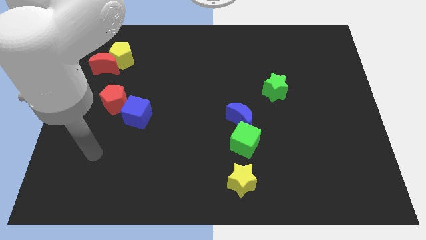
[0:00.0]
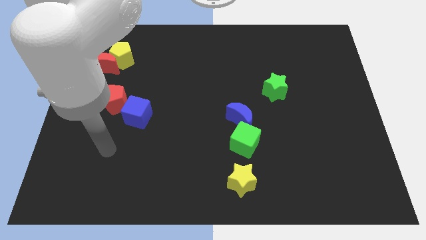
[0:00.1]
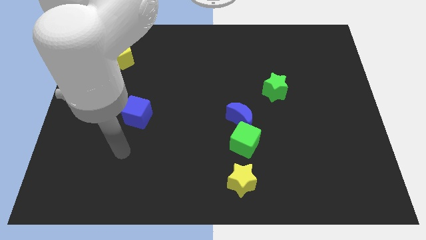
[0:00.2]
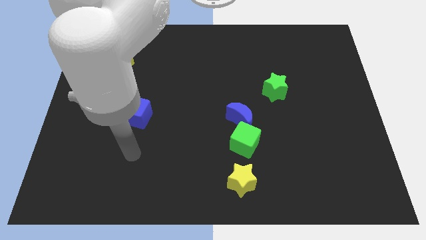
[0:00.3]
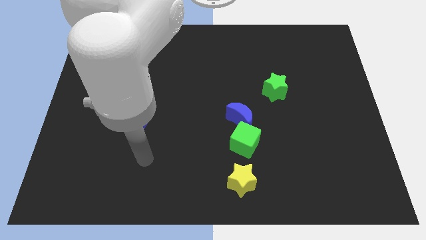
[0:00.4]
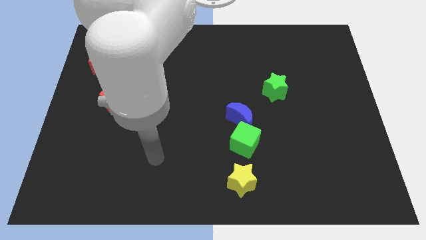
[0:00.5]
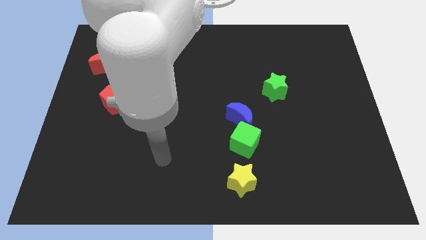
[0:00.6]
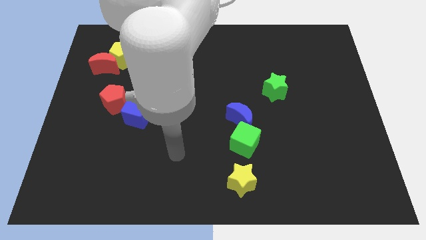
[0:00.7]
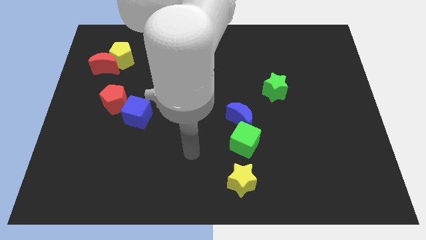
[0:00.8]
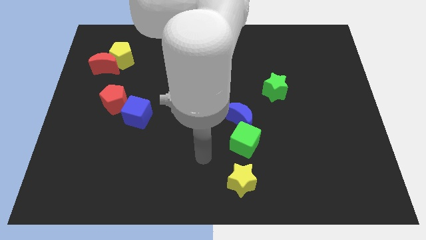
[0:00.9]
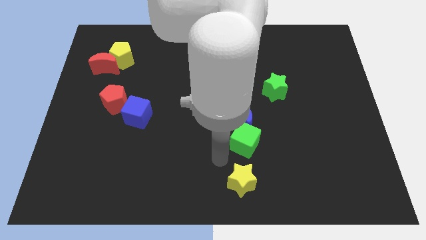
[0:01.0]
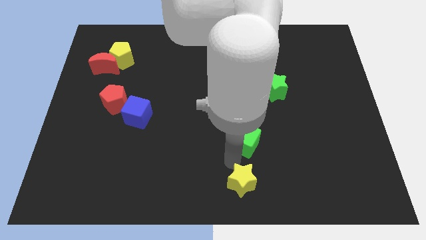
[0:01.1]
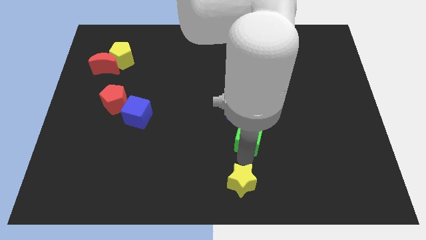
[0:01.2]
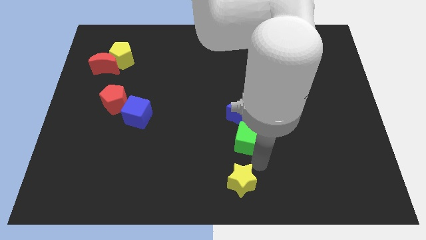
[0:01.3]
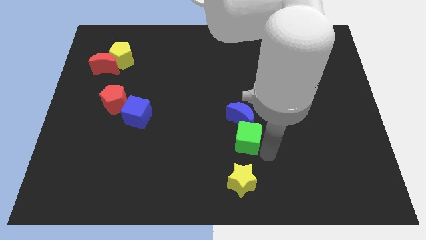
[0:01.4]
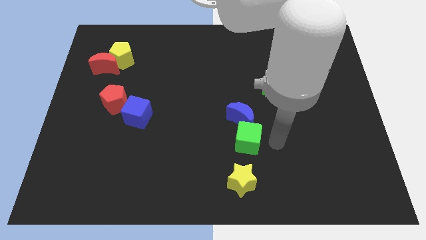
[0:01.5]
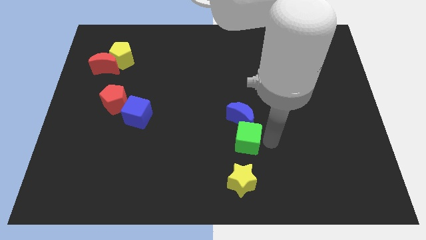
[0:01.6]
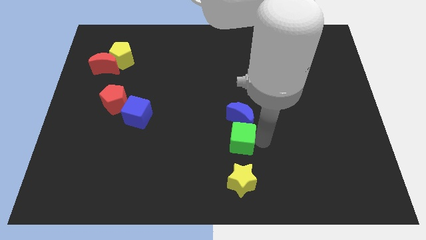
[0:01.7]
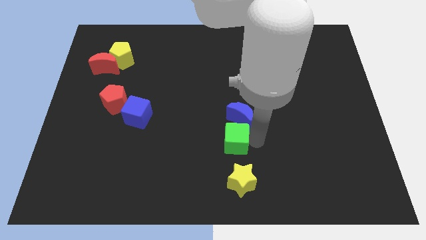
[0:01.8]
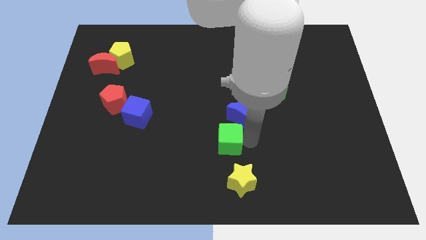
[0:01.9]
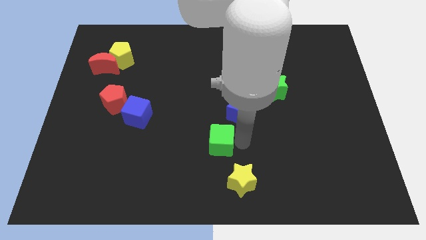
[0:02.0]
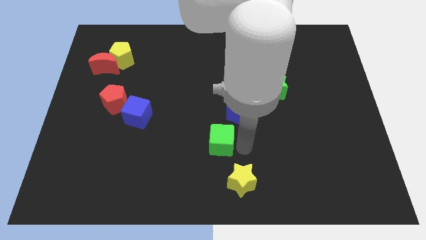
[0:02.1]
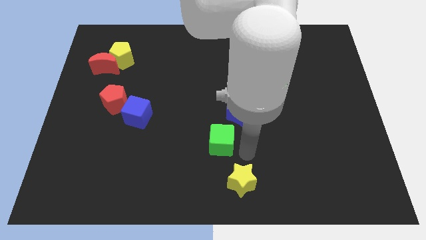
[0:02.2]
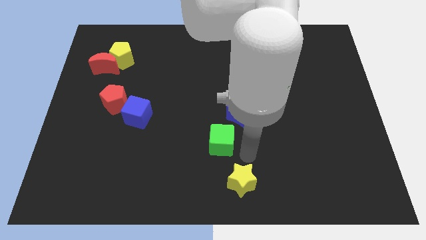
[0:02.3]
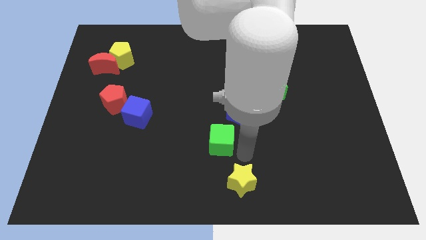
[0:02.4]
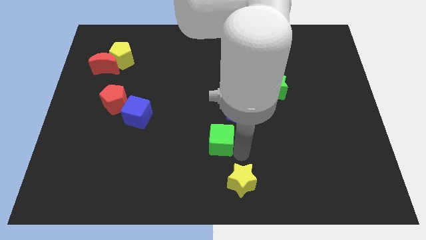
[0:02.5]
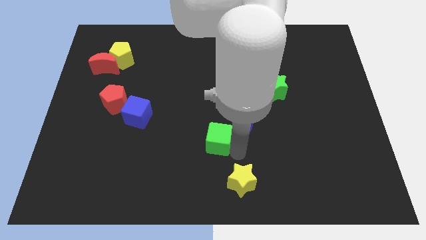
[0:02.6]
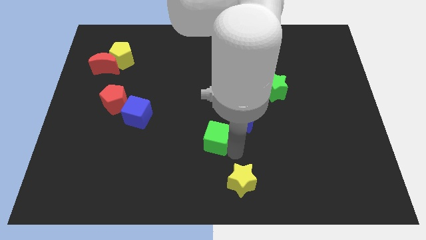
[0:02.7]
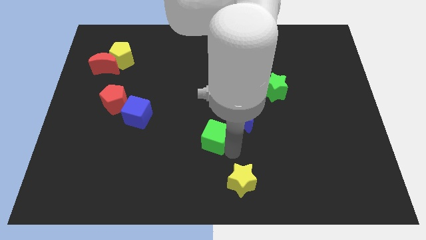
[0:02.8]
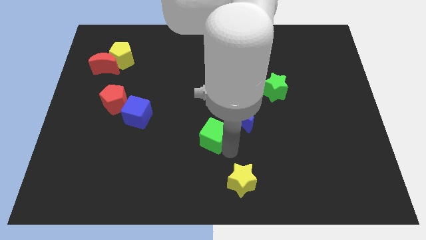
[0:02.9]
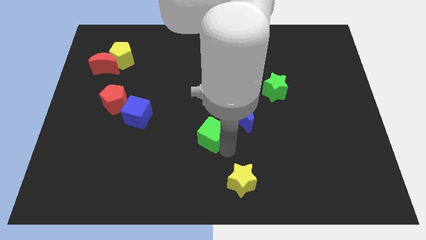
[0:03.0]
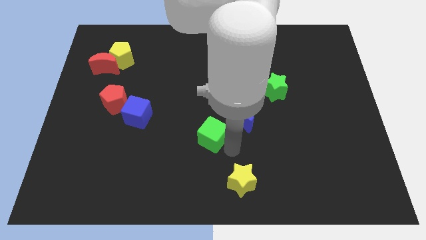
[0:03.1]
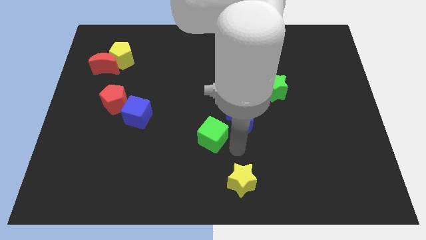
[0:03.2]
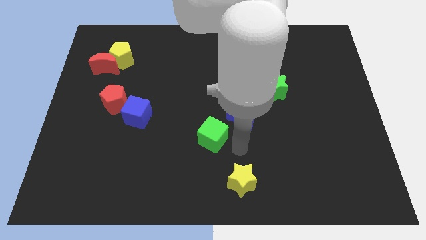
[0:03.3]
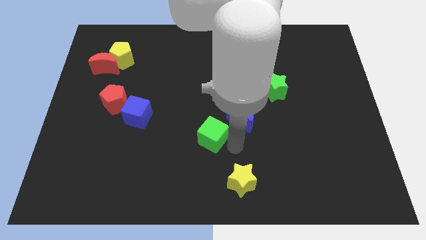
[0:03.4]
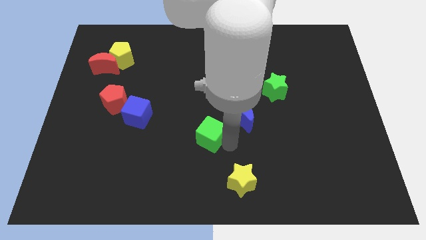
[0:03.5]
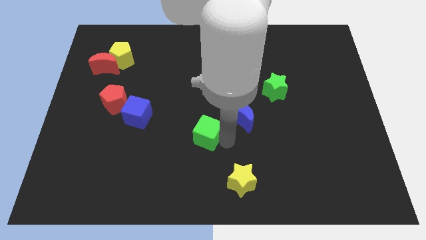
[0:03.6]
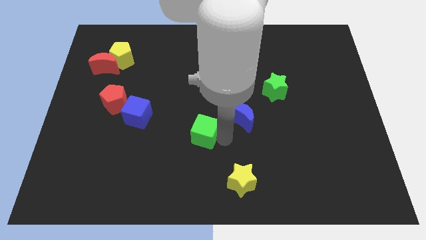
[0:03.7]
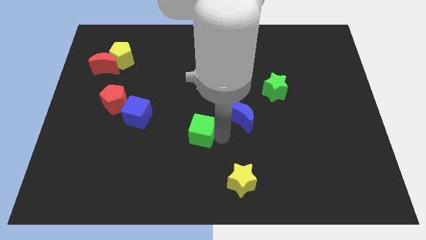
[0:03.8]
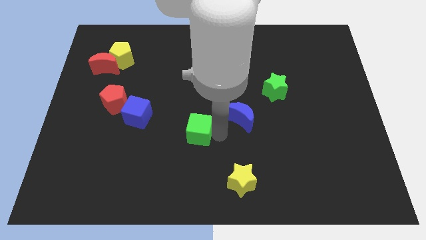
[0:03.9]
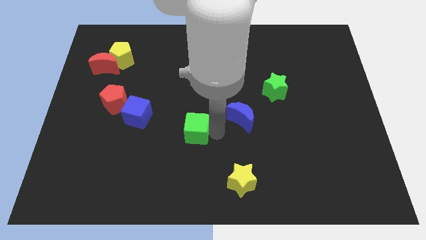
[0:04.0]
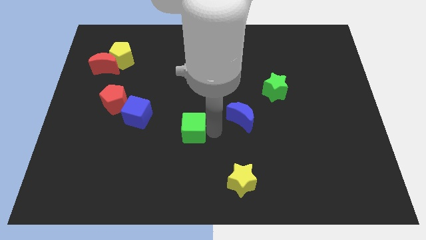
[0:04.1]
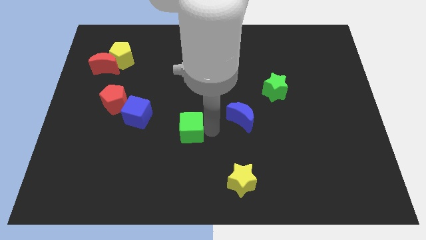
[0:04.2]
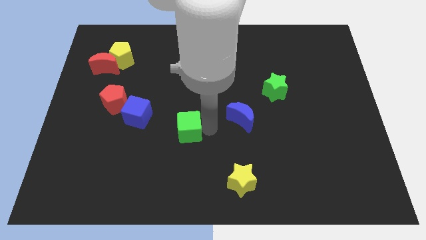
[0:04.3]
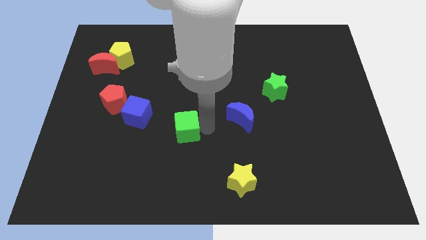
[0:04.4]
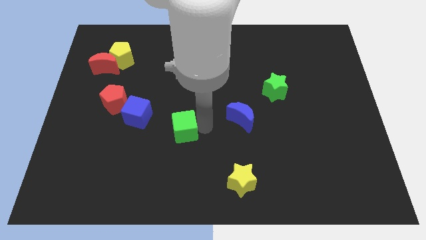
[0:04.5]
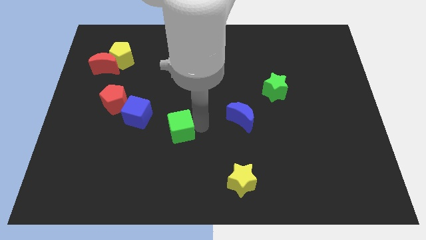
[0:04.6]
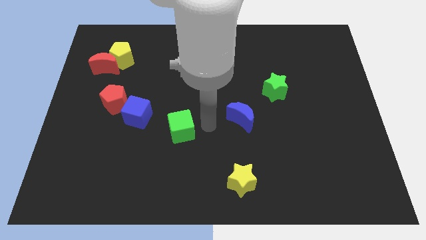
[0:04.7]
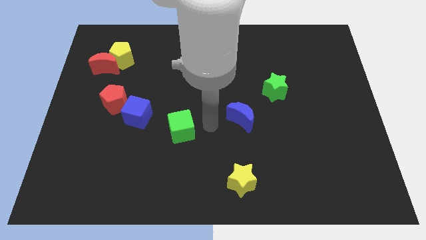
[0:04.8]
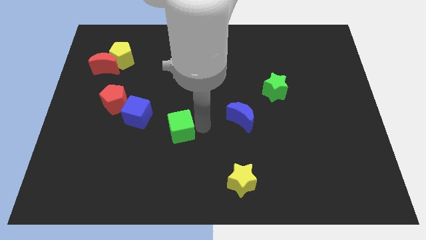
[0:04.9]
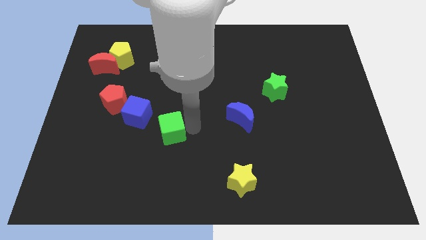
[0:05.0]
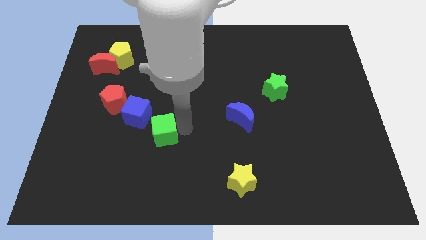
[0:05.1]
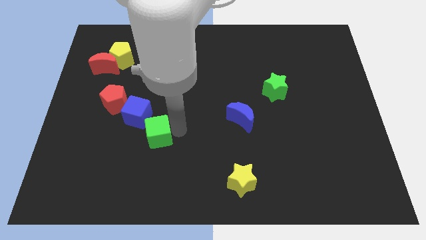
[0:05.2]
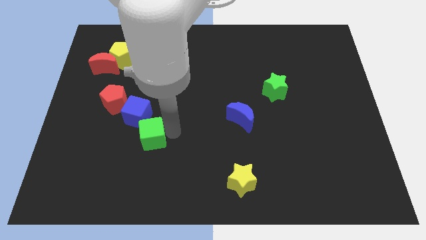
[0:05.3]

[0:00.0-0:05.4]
push the green cube left

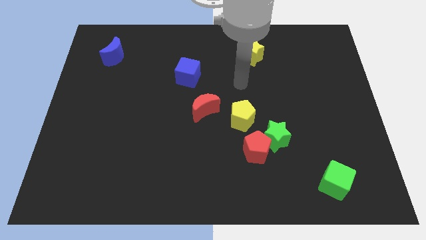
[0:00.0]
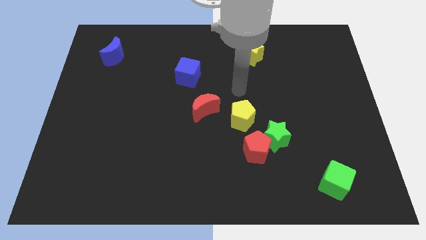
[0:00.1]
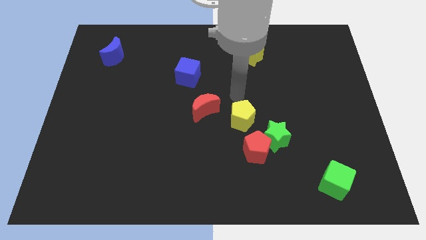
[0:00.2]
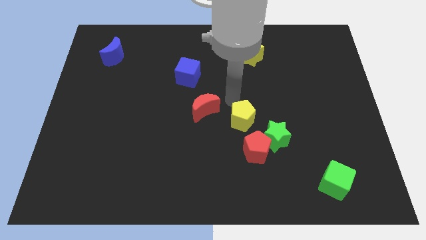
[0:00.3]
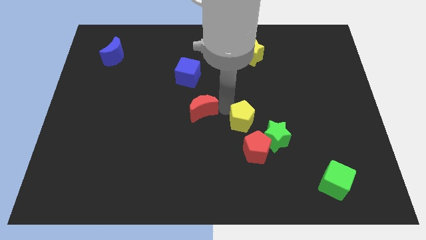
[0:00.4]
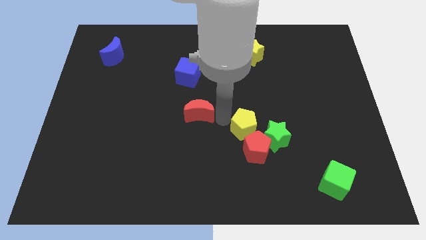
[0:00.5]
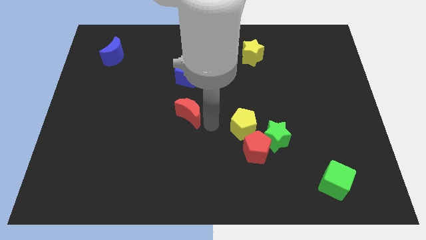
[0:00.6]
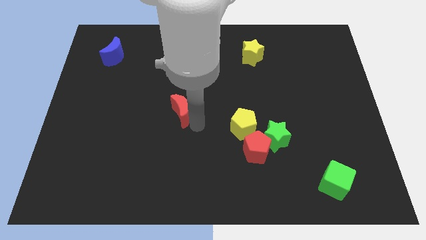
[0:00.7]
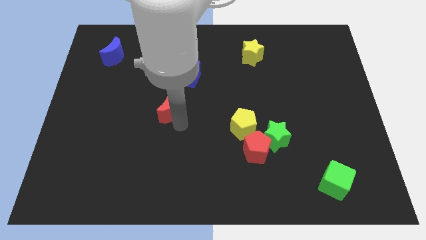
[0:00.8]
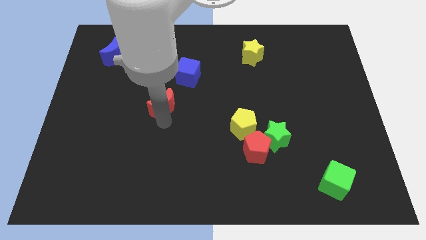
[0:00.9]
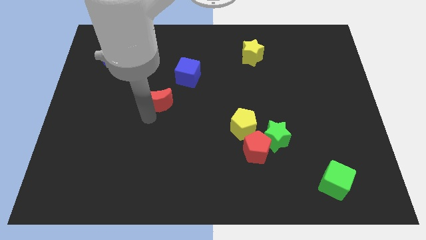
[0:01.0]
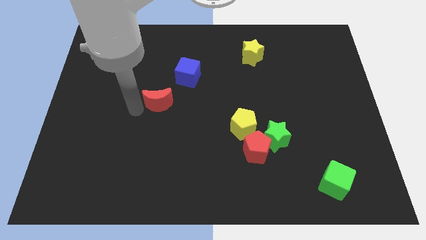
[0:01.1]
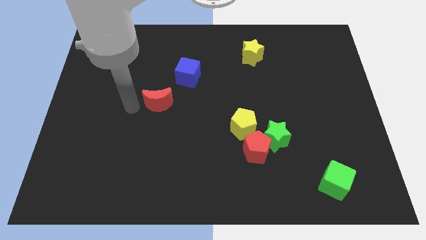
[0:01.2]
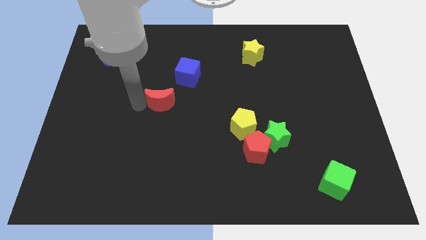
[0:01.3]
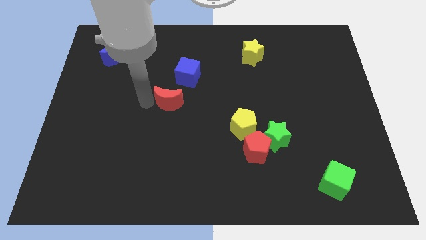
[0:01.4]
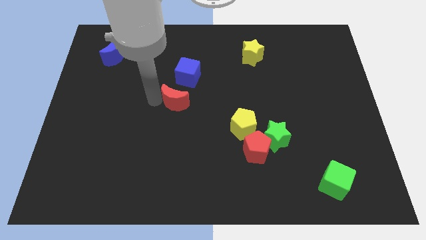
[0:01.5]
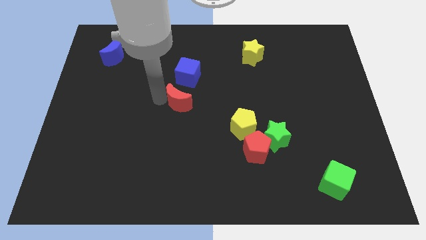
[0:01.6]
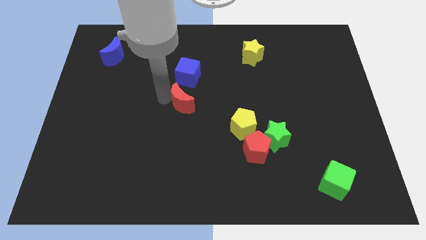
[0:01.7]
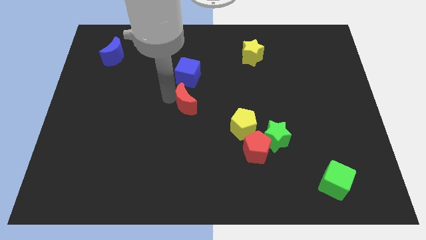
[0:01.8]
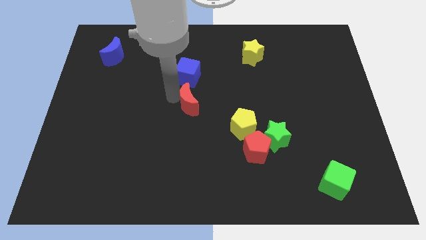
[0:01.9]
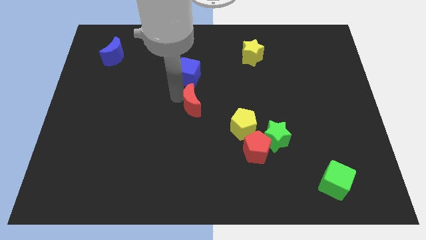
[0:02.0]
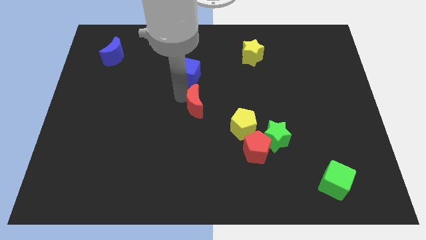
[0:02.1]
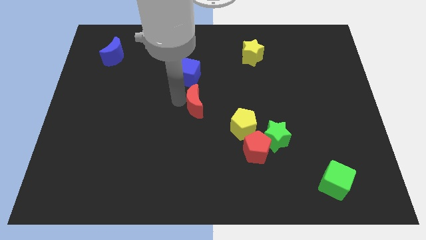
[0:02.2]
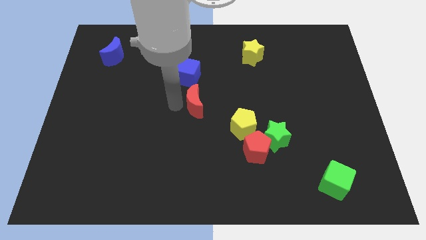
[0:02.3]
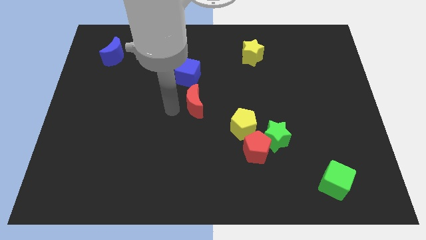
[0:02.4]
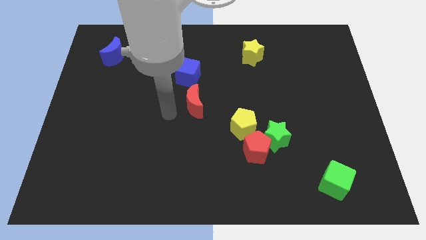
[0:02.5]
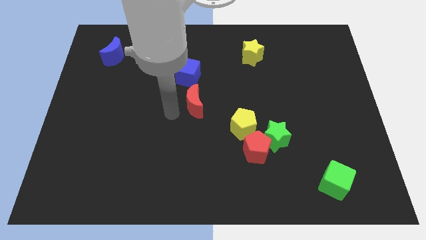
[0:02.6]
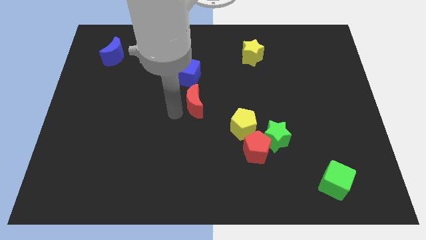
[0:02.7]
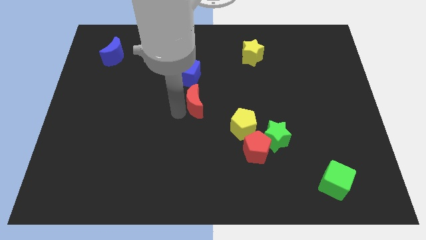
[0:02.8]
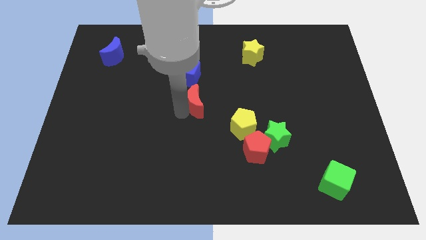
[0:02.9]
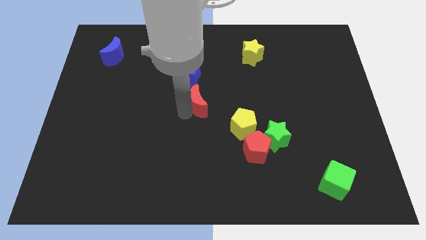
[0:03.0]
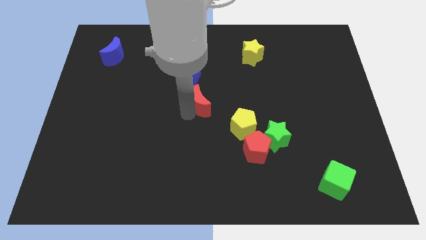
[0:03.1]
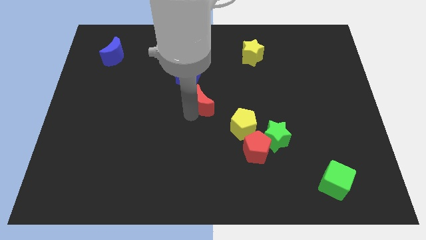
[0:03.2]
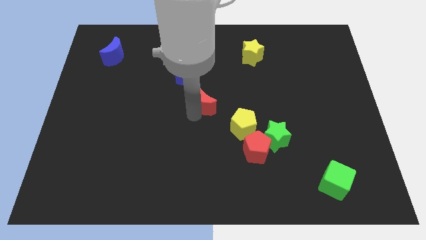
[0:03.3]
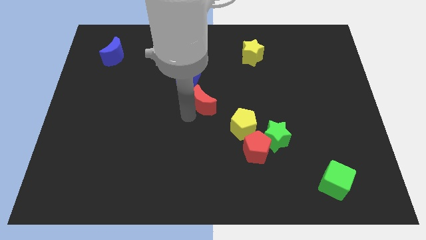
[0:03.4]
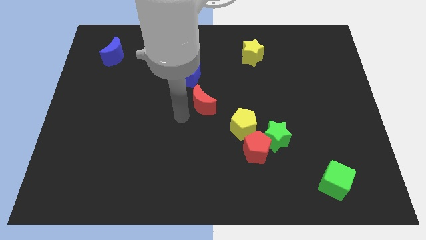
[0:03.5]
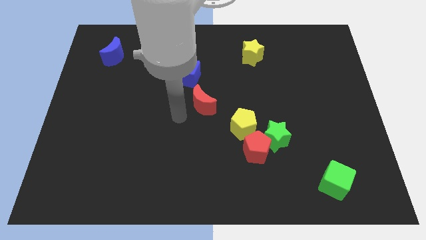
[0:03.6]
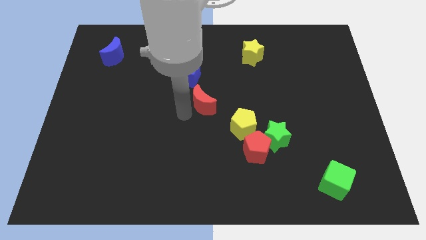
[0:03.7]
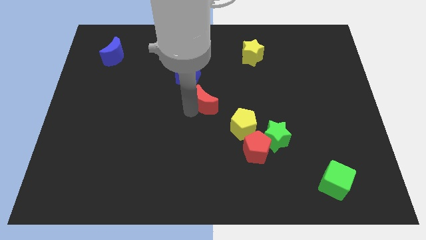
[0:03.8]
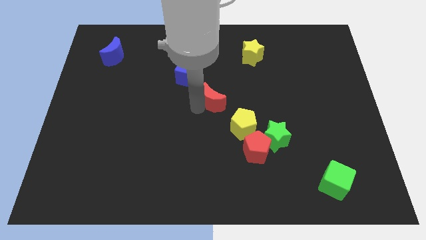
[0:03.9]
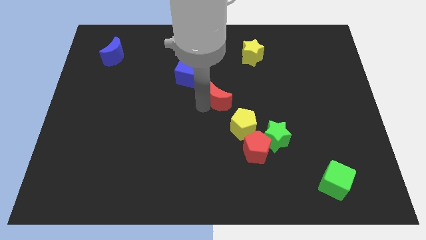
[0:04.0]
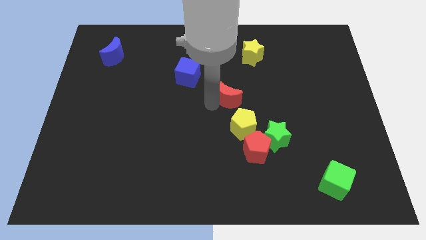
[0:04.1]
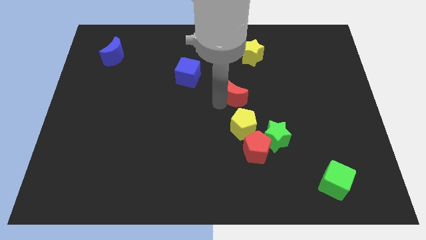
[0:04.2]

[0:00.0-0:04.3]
push the red moon a bit diagonally upwards and right
